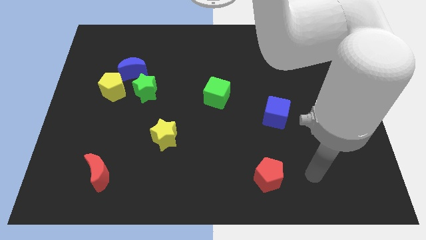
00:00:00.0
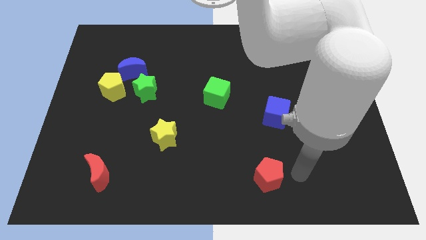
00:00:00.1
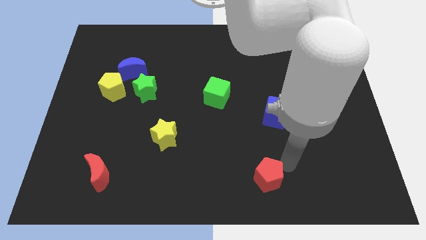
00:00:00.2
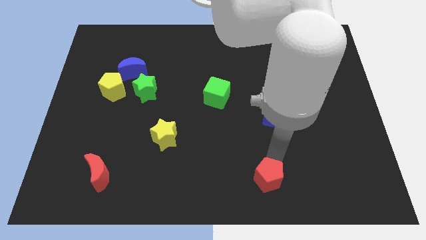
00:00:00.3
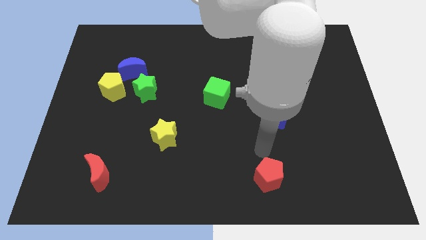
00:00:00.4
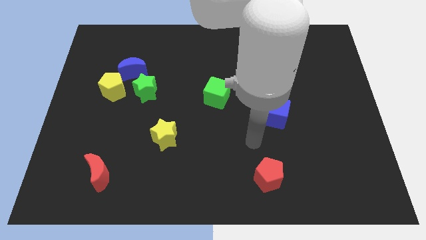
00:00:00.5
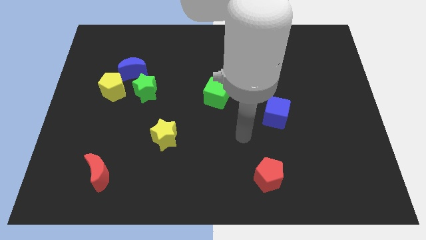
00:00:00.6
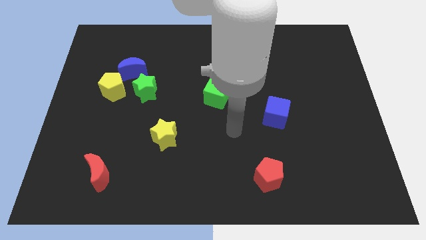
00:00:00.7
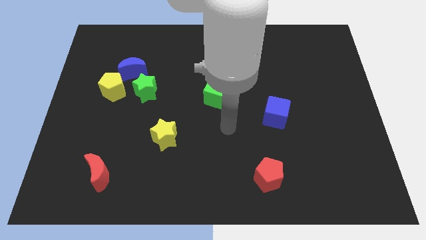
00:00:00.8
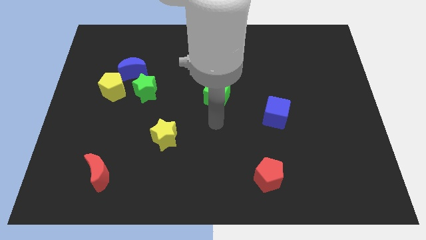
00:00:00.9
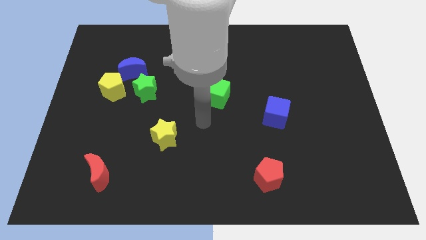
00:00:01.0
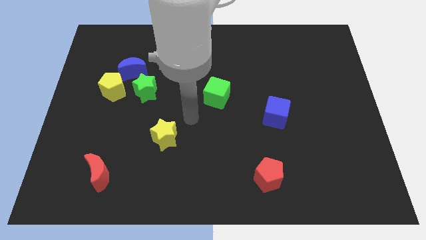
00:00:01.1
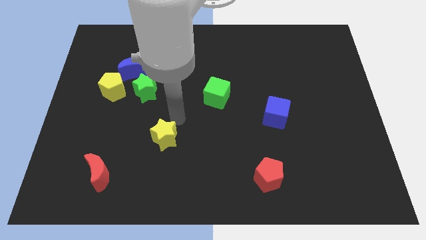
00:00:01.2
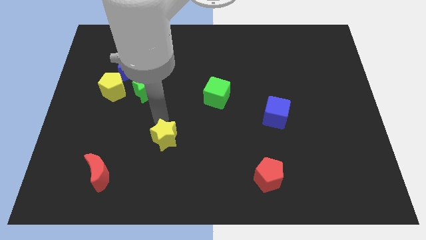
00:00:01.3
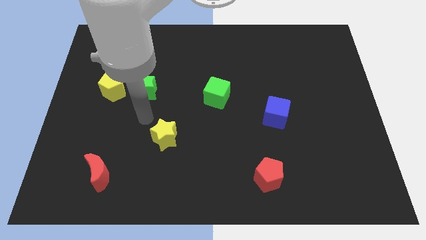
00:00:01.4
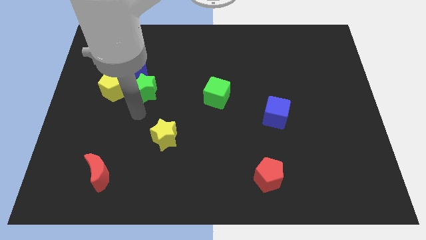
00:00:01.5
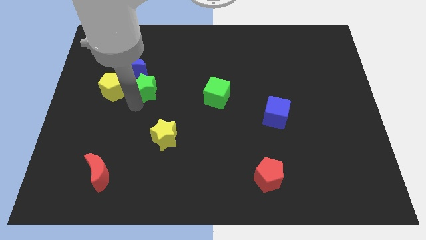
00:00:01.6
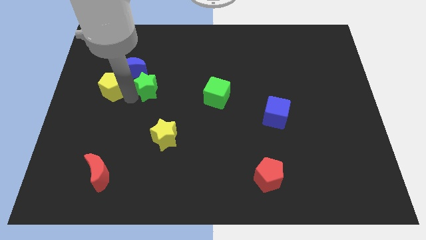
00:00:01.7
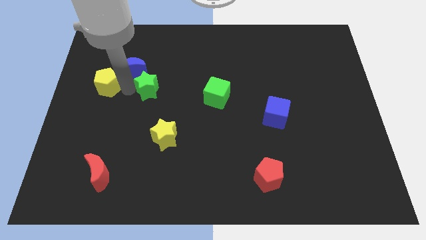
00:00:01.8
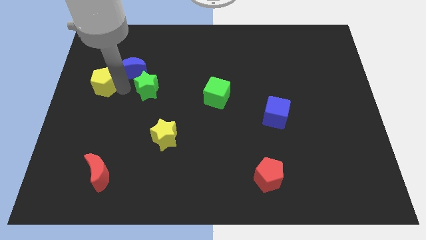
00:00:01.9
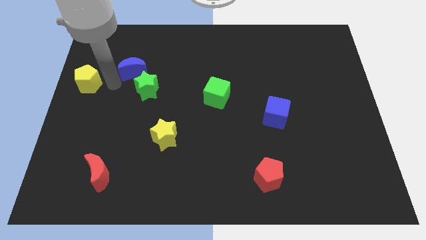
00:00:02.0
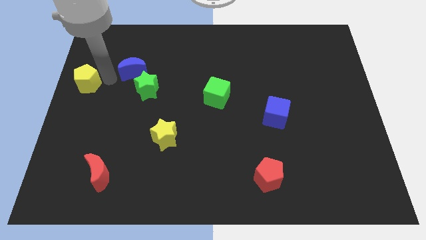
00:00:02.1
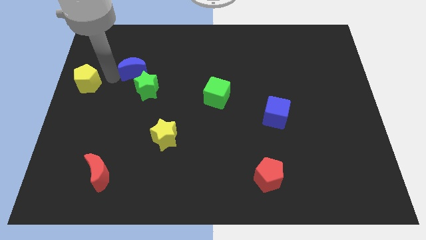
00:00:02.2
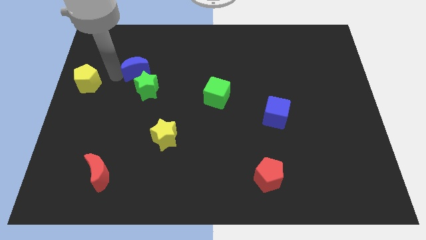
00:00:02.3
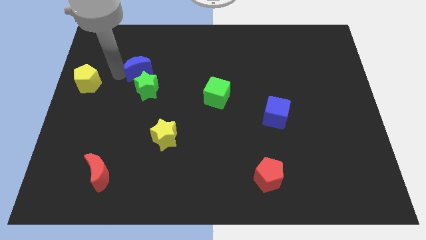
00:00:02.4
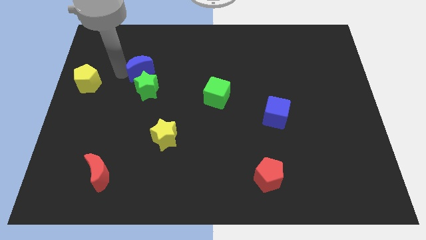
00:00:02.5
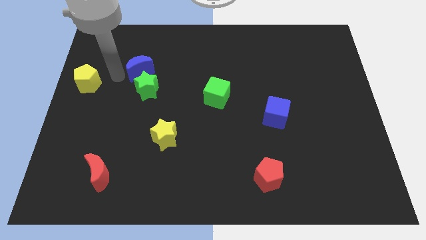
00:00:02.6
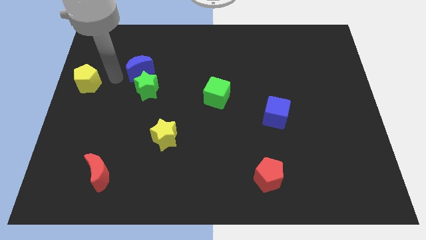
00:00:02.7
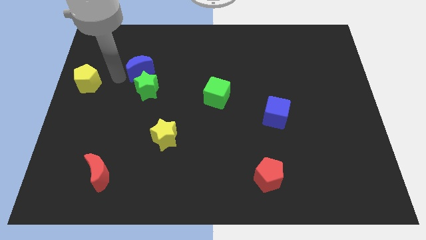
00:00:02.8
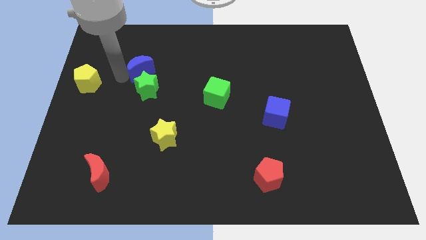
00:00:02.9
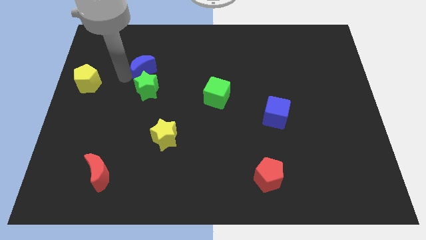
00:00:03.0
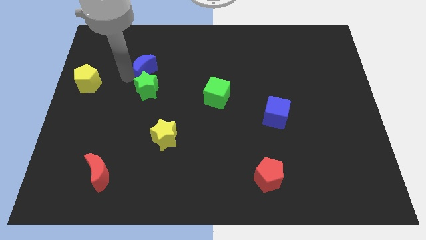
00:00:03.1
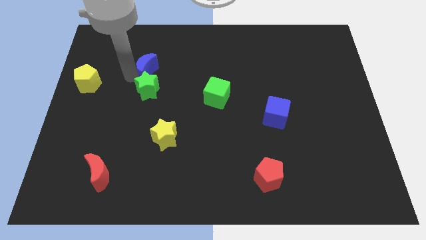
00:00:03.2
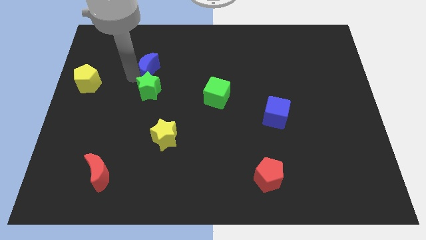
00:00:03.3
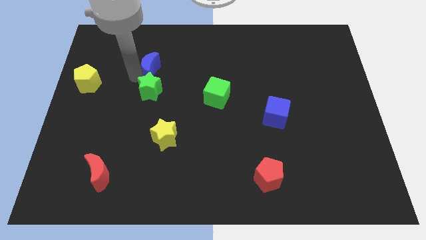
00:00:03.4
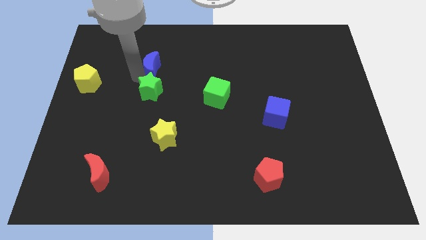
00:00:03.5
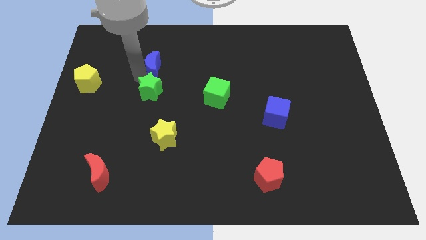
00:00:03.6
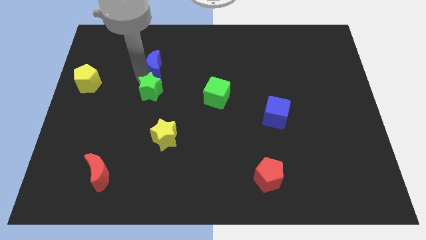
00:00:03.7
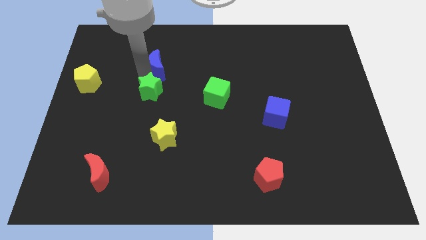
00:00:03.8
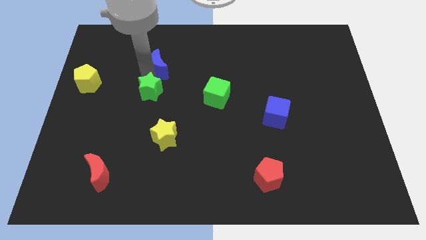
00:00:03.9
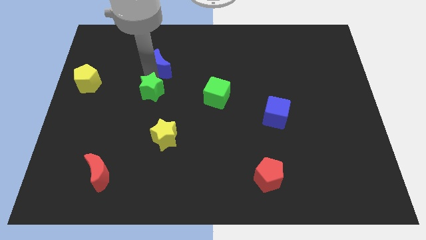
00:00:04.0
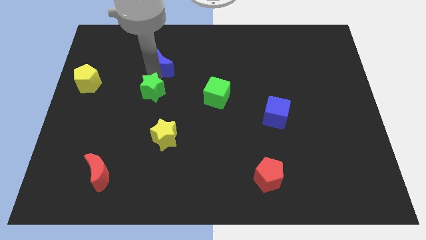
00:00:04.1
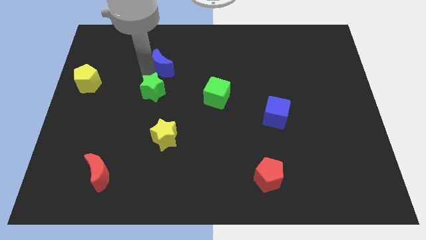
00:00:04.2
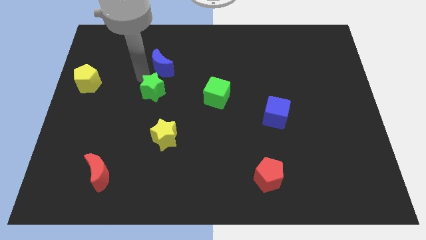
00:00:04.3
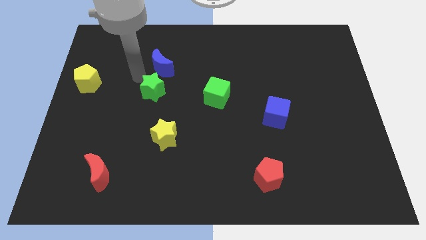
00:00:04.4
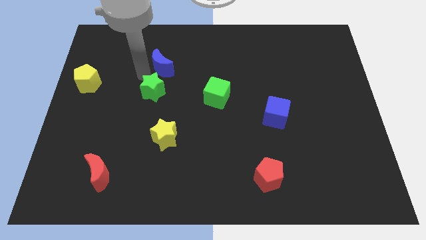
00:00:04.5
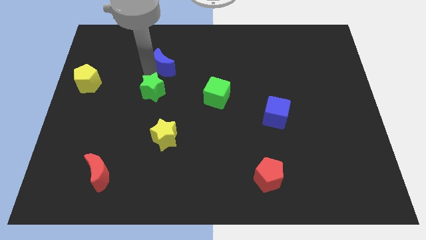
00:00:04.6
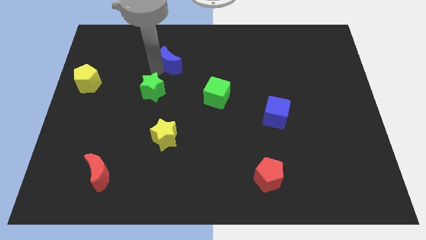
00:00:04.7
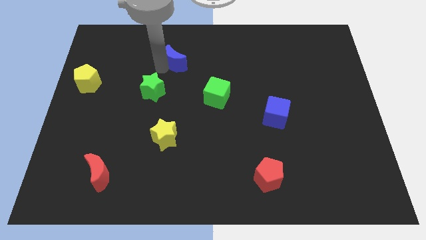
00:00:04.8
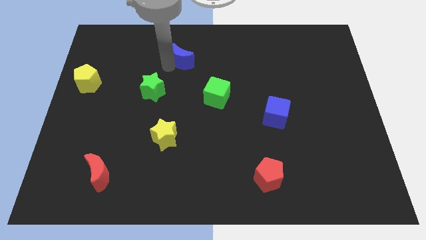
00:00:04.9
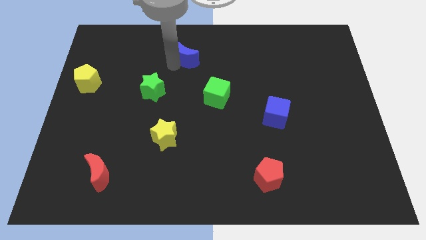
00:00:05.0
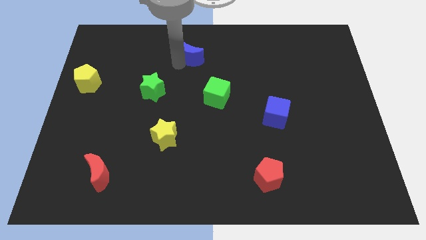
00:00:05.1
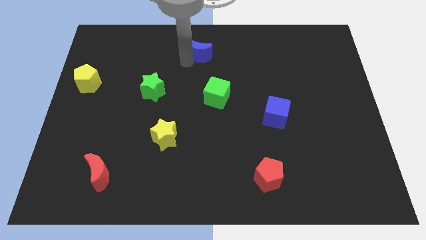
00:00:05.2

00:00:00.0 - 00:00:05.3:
slide the blue moon to the top side
